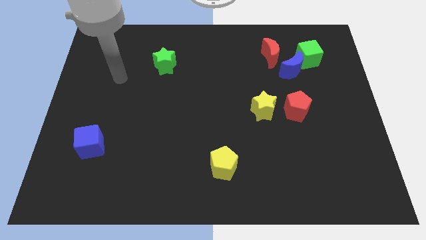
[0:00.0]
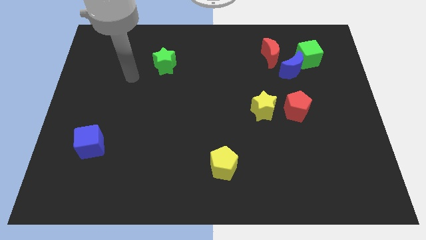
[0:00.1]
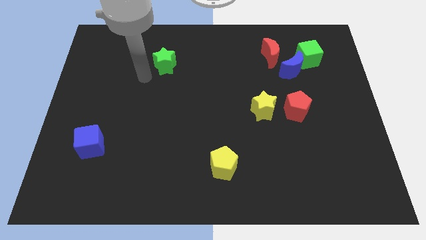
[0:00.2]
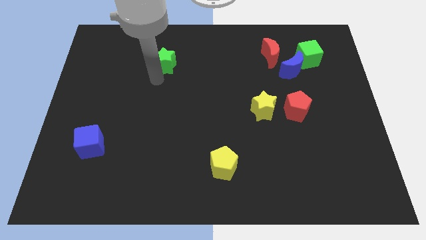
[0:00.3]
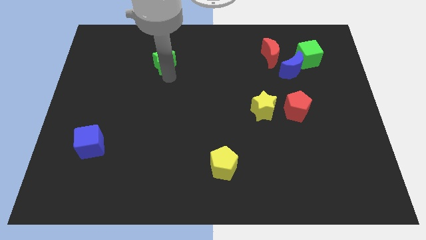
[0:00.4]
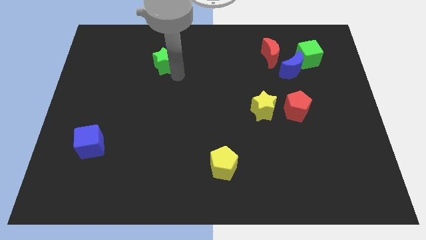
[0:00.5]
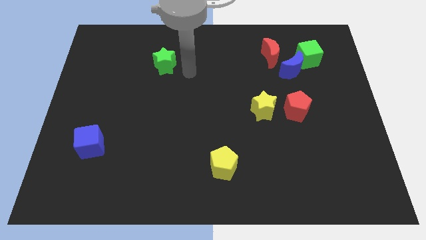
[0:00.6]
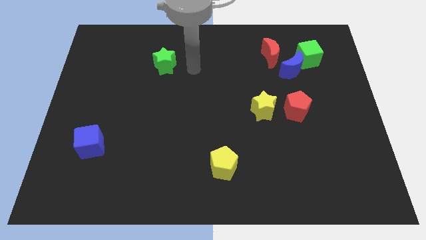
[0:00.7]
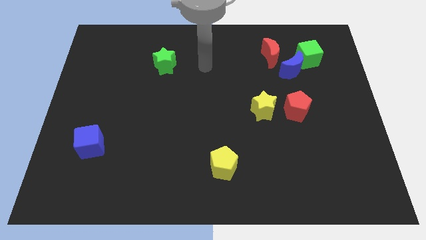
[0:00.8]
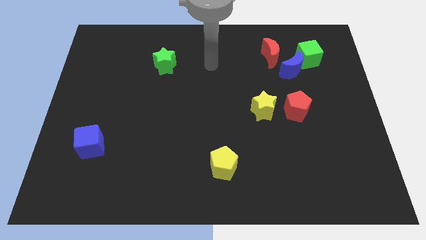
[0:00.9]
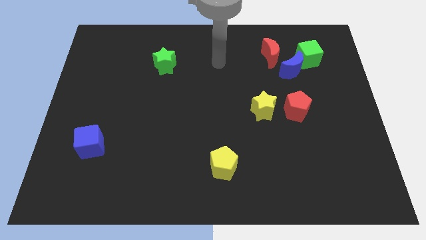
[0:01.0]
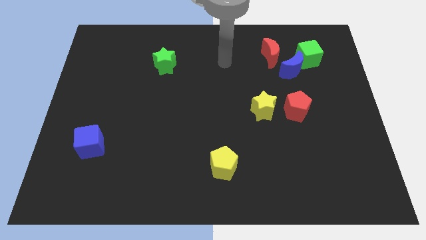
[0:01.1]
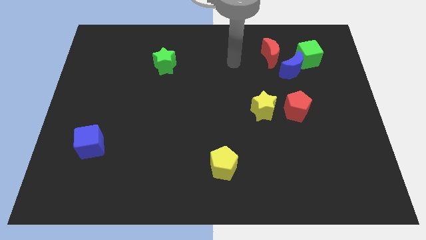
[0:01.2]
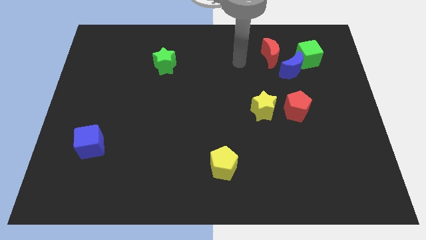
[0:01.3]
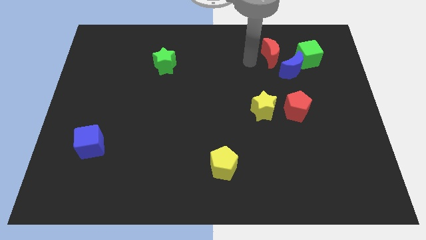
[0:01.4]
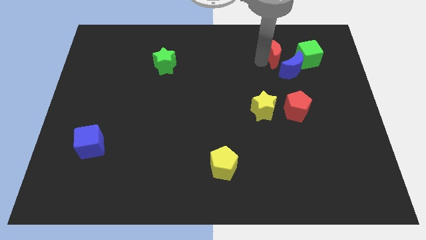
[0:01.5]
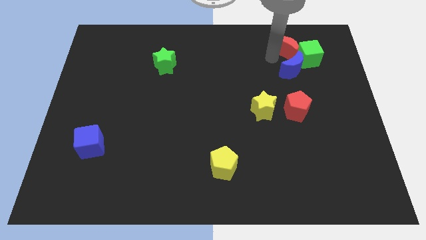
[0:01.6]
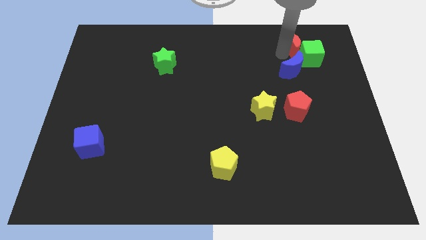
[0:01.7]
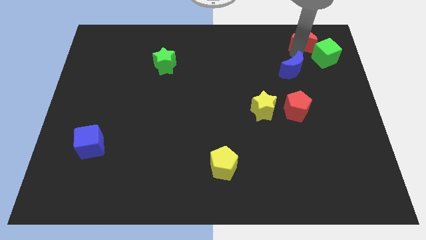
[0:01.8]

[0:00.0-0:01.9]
move the blue moon away from the green cube and red moon

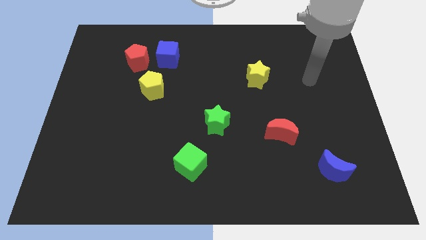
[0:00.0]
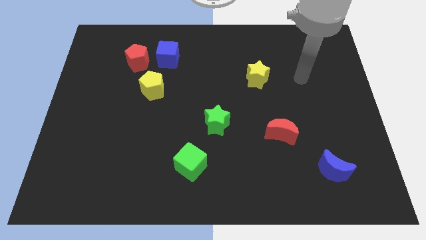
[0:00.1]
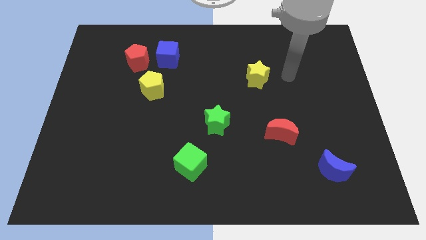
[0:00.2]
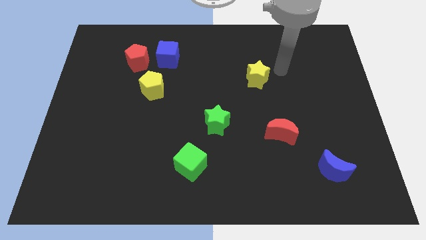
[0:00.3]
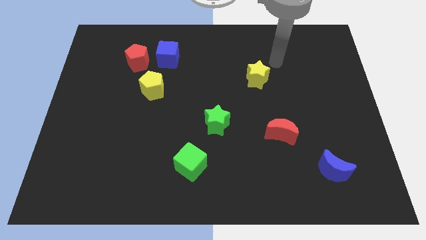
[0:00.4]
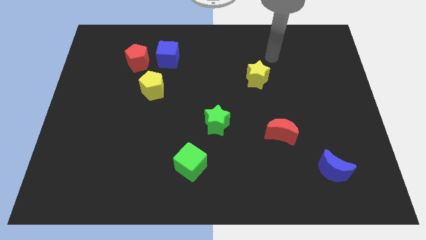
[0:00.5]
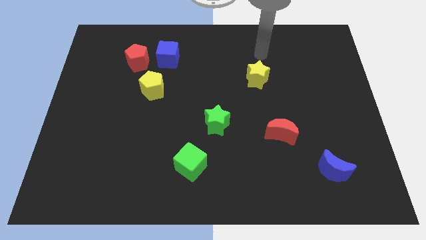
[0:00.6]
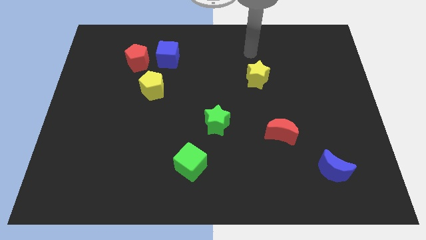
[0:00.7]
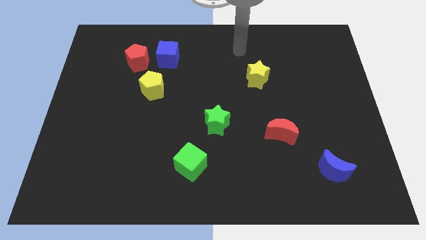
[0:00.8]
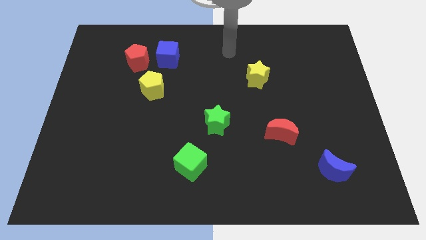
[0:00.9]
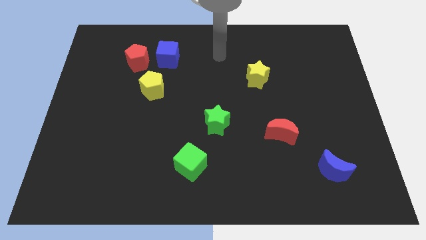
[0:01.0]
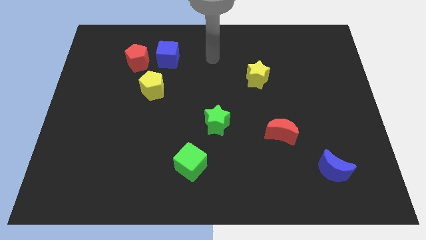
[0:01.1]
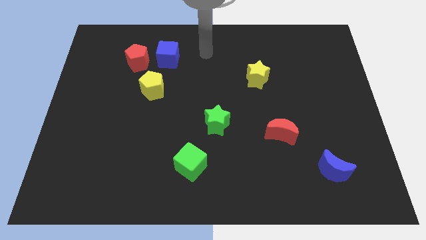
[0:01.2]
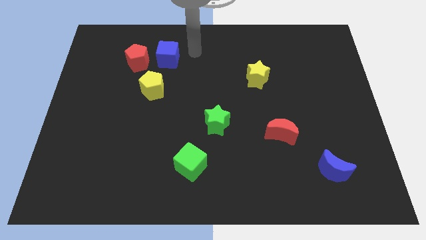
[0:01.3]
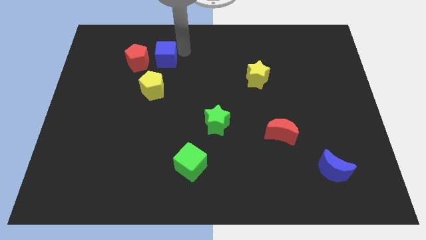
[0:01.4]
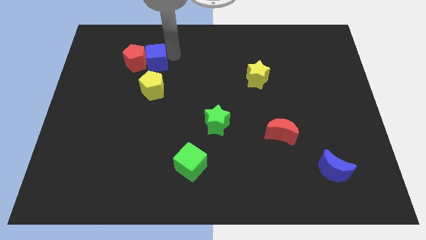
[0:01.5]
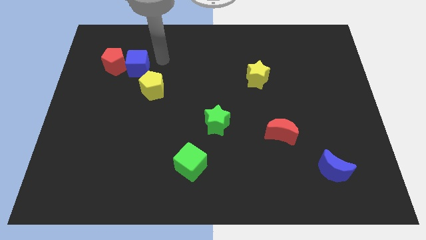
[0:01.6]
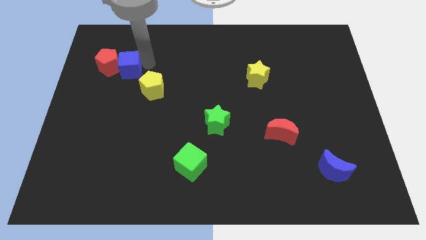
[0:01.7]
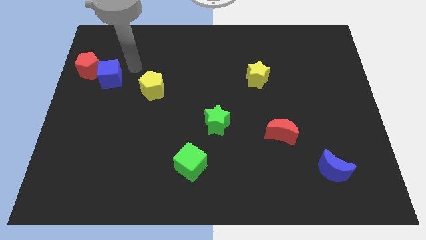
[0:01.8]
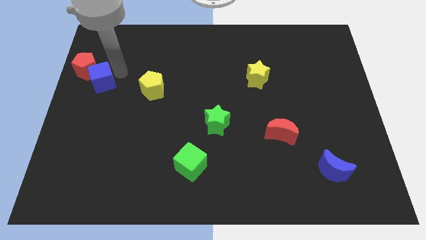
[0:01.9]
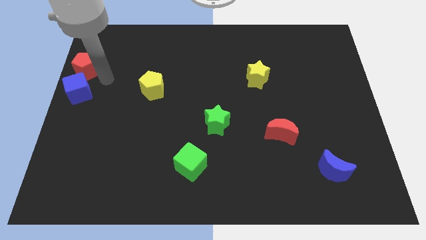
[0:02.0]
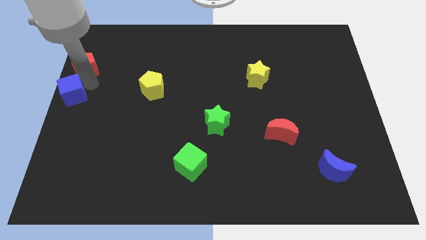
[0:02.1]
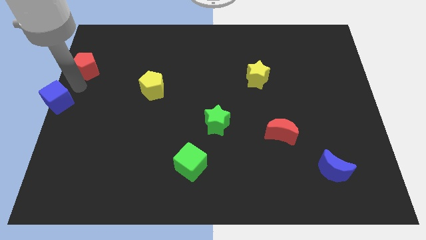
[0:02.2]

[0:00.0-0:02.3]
move the red pentagon away from the blue cube

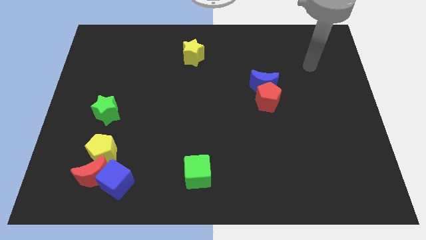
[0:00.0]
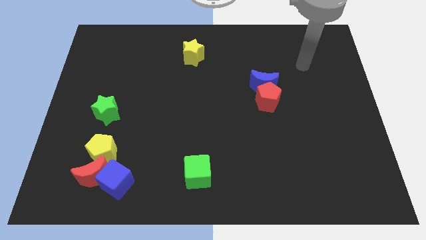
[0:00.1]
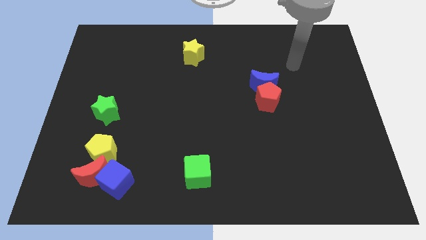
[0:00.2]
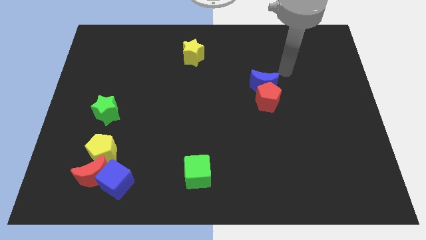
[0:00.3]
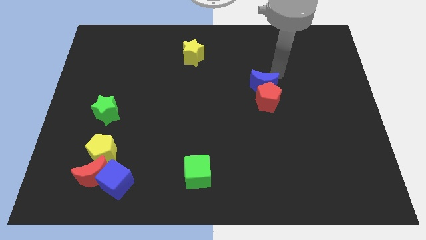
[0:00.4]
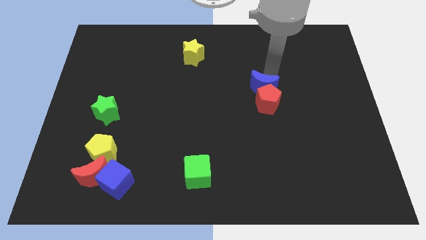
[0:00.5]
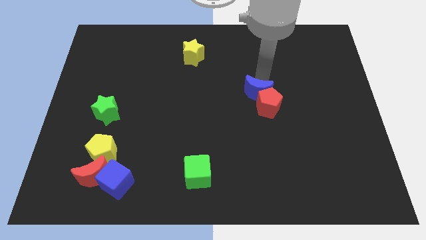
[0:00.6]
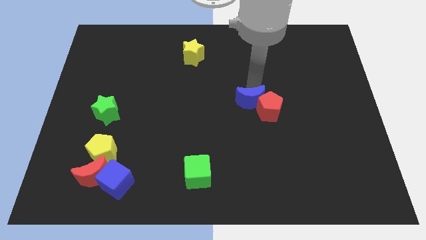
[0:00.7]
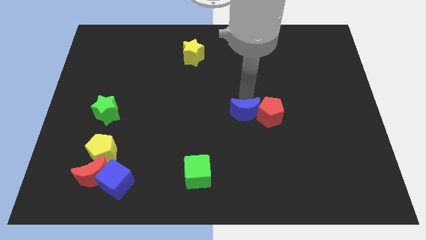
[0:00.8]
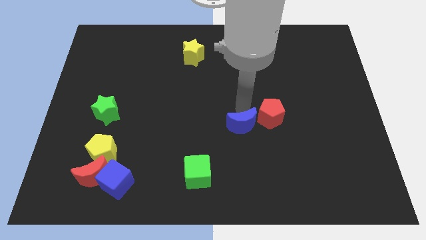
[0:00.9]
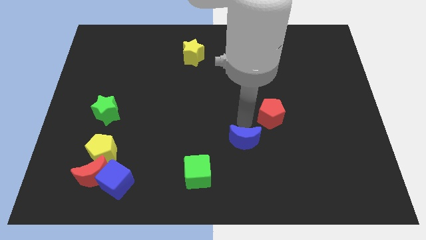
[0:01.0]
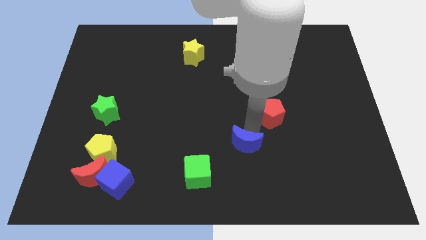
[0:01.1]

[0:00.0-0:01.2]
pull the red pentagon apart from the blue moon

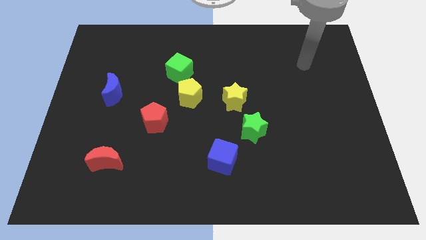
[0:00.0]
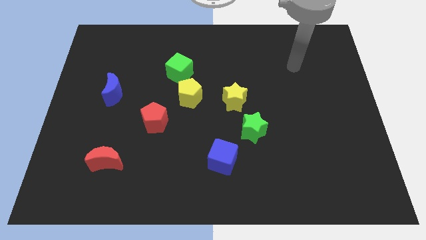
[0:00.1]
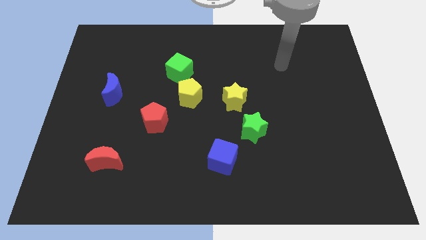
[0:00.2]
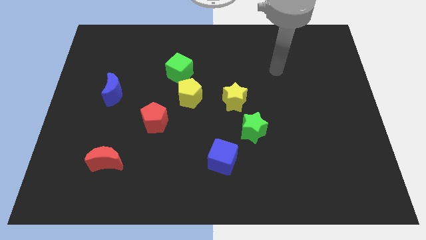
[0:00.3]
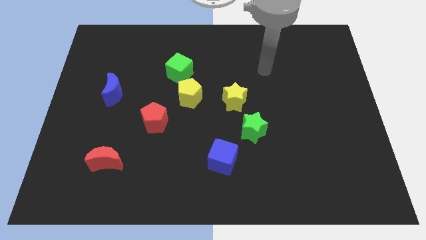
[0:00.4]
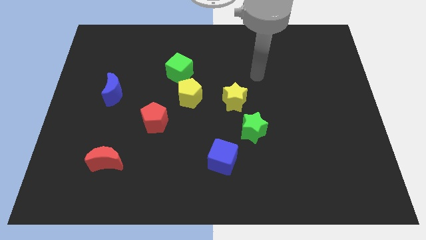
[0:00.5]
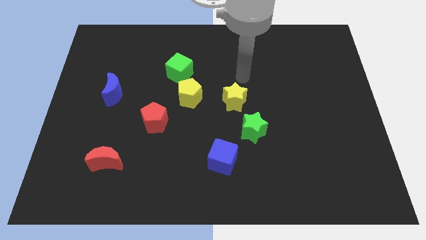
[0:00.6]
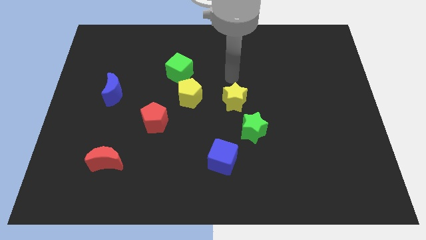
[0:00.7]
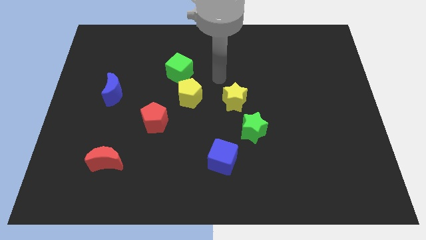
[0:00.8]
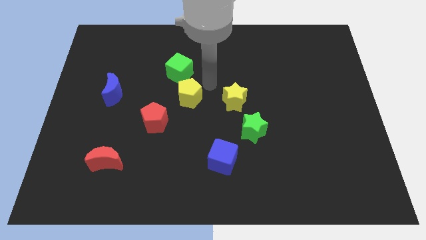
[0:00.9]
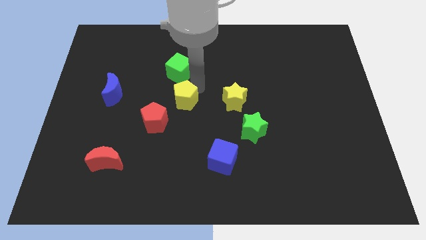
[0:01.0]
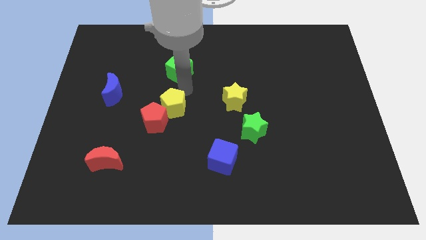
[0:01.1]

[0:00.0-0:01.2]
move the green cube away from the yellow pentagon

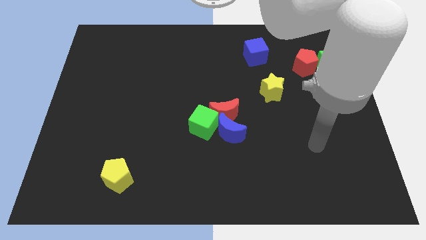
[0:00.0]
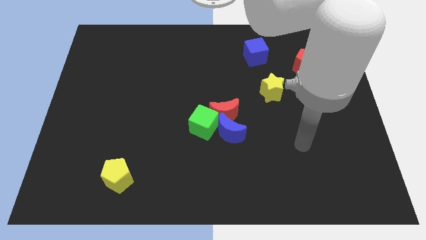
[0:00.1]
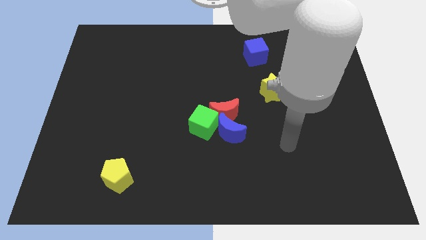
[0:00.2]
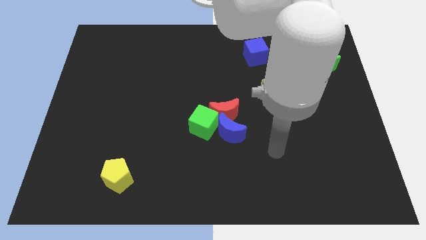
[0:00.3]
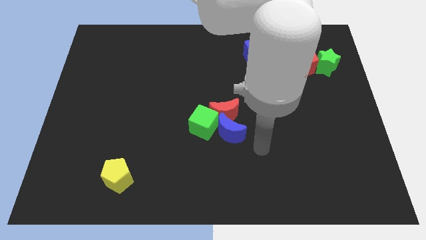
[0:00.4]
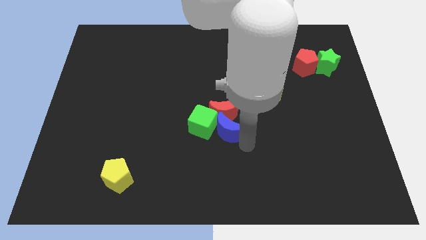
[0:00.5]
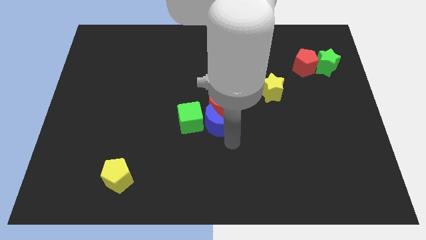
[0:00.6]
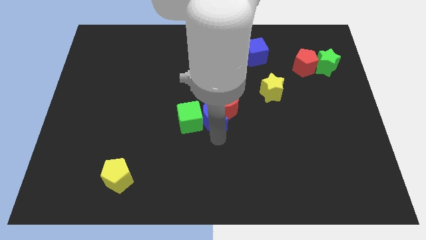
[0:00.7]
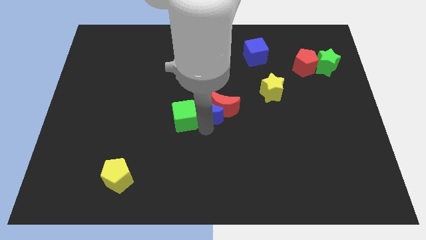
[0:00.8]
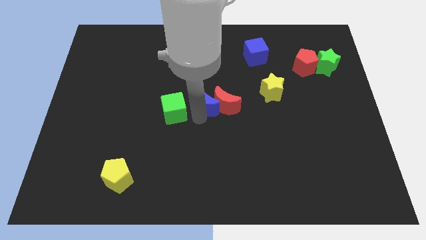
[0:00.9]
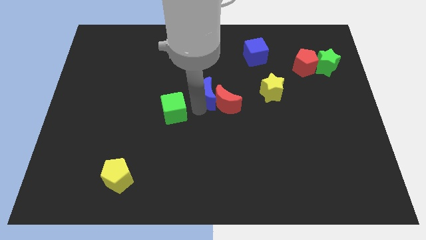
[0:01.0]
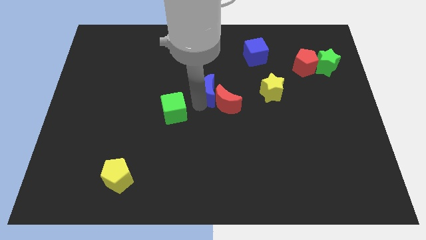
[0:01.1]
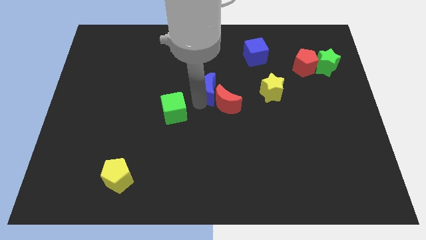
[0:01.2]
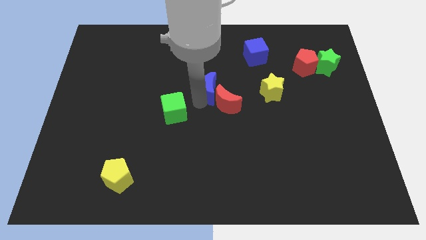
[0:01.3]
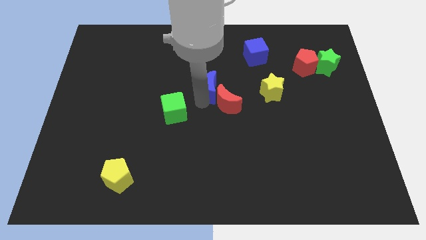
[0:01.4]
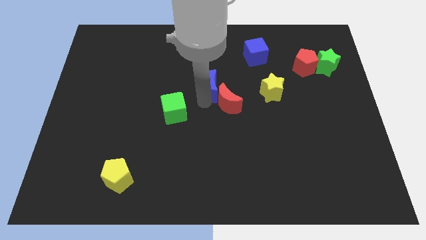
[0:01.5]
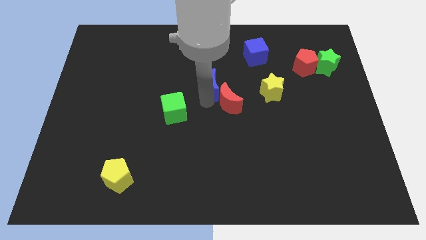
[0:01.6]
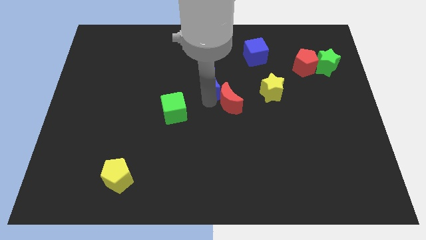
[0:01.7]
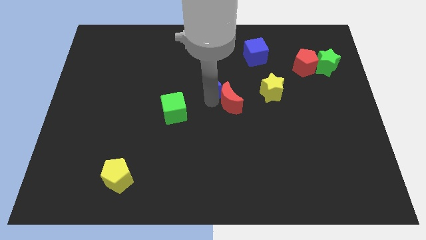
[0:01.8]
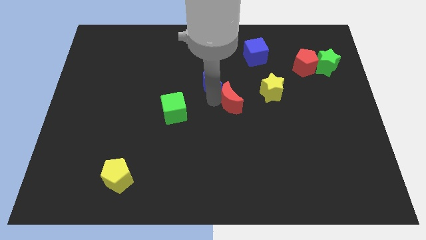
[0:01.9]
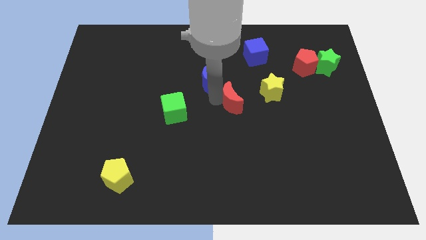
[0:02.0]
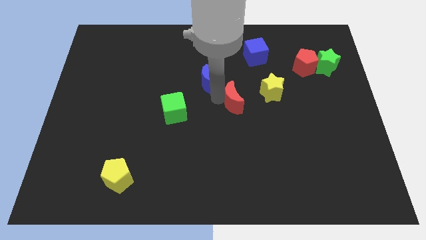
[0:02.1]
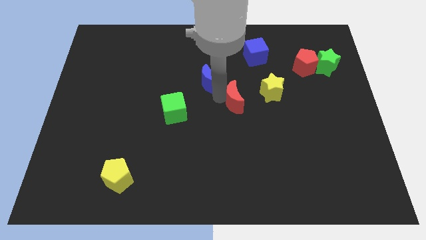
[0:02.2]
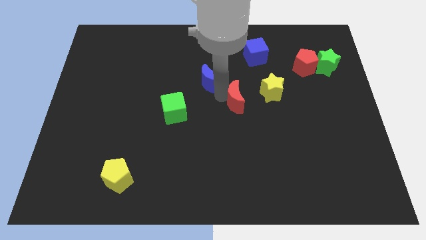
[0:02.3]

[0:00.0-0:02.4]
move the red moon away from the blue moon and green cube

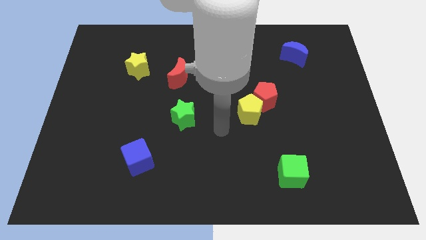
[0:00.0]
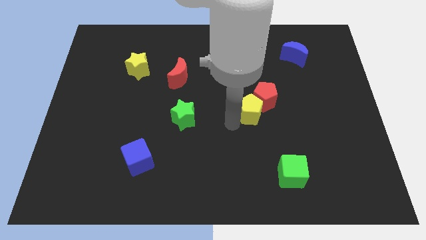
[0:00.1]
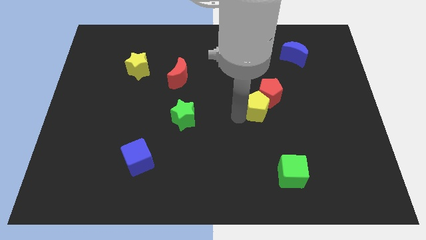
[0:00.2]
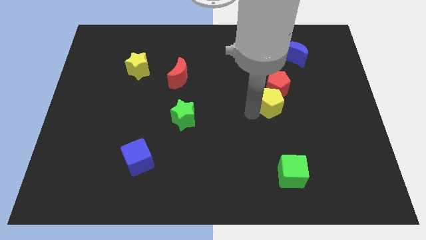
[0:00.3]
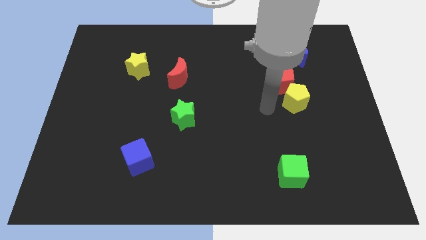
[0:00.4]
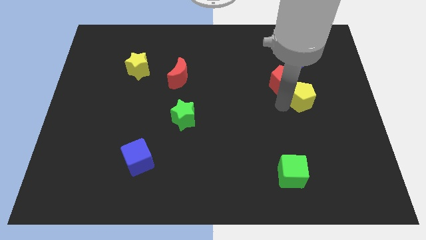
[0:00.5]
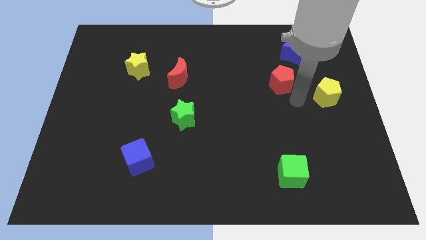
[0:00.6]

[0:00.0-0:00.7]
move the red pentagon away from the yellow pentagon
